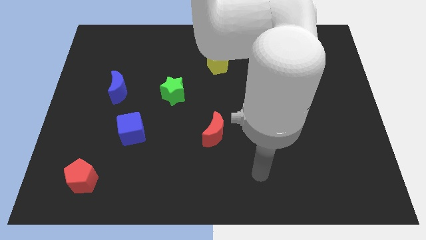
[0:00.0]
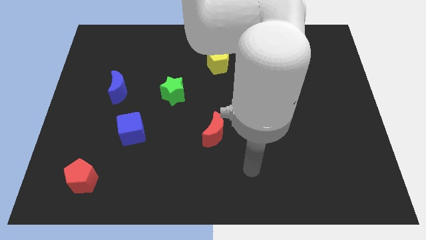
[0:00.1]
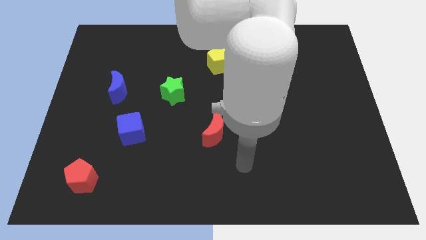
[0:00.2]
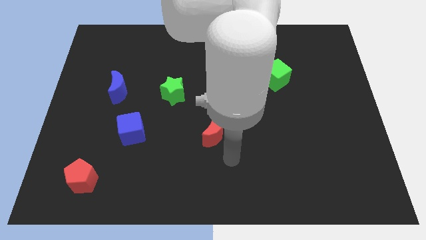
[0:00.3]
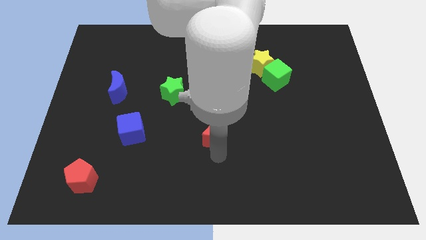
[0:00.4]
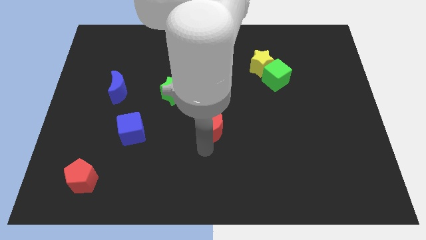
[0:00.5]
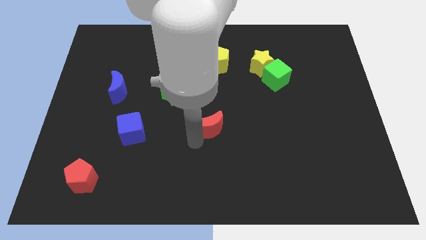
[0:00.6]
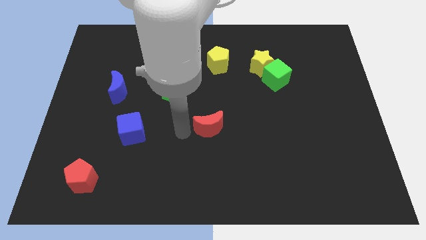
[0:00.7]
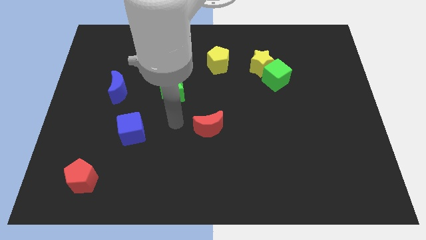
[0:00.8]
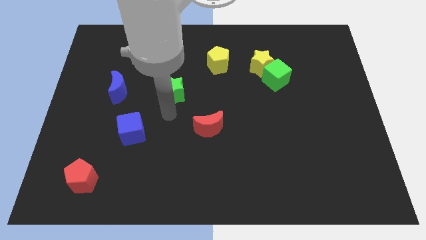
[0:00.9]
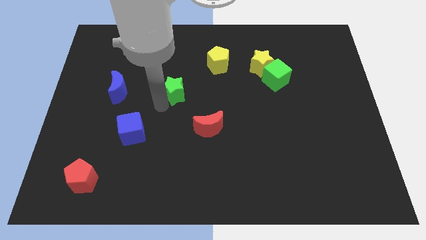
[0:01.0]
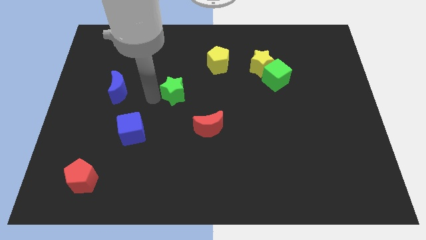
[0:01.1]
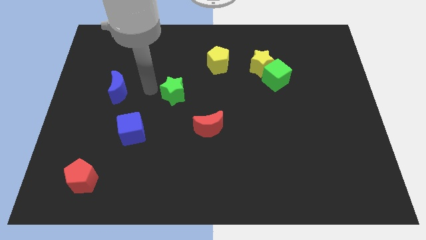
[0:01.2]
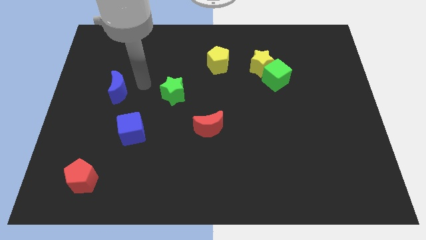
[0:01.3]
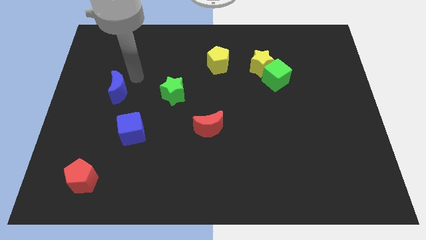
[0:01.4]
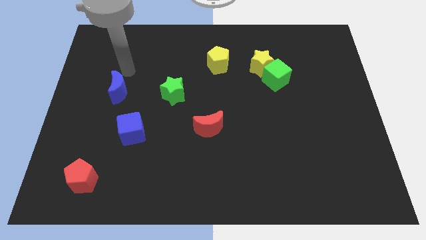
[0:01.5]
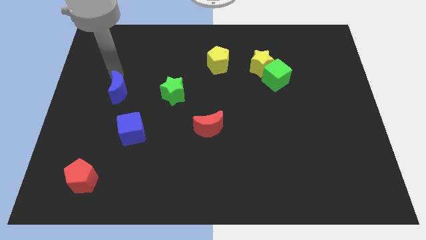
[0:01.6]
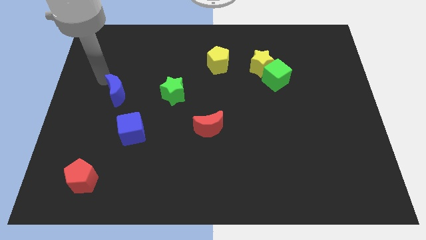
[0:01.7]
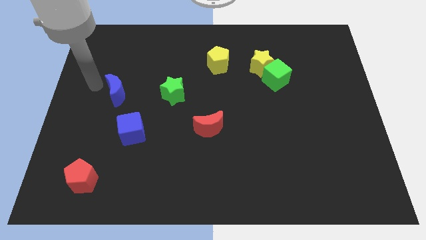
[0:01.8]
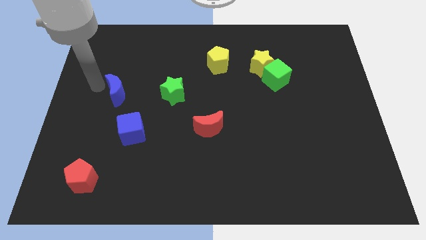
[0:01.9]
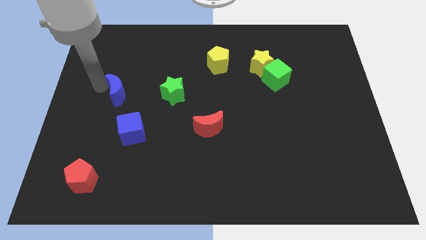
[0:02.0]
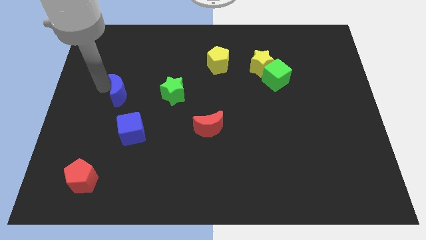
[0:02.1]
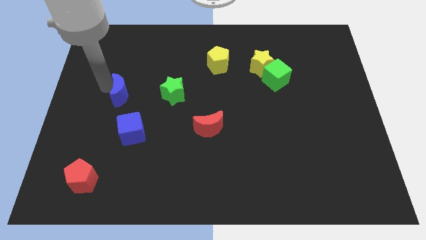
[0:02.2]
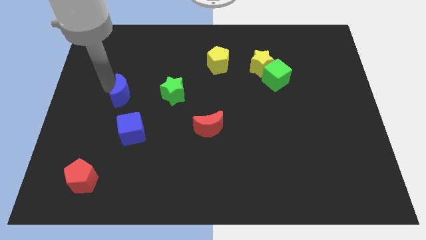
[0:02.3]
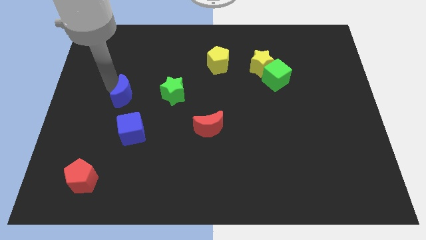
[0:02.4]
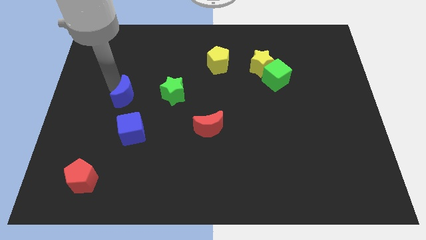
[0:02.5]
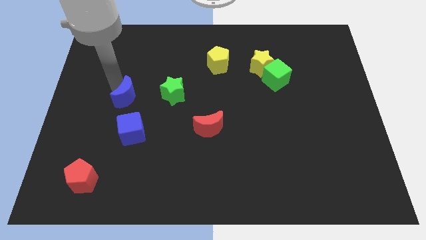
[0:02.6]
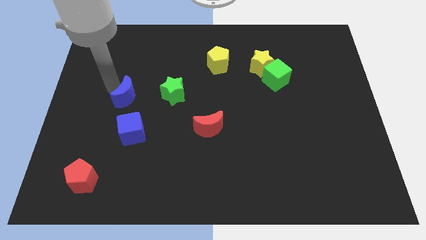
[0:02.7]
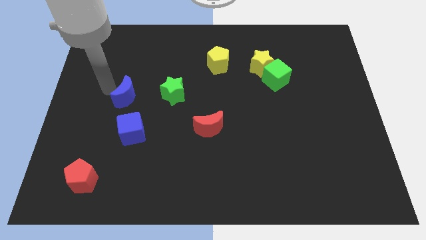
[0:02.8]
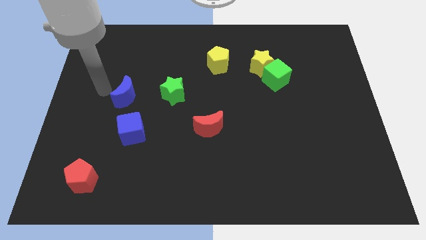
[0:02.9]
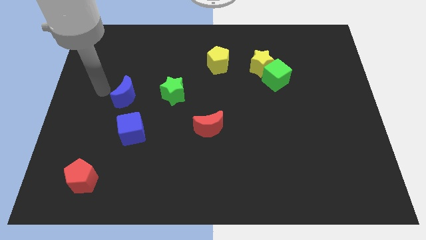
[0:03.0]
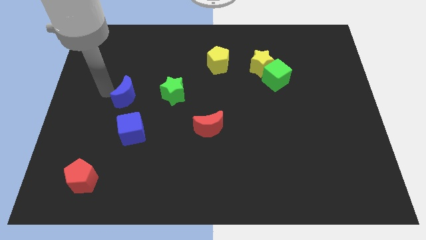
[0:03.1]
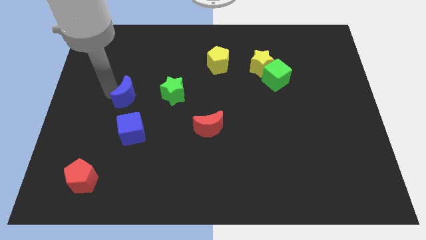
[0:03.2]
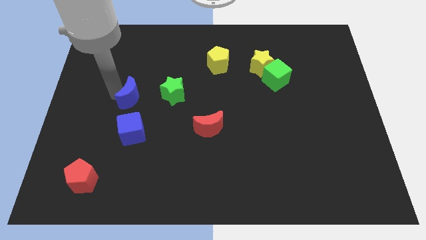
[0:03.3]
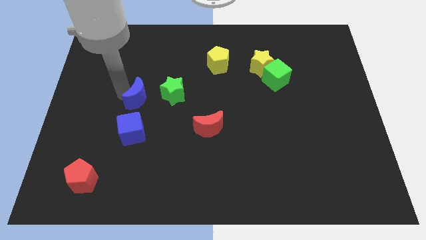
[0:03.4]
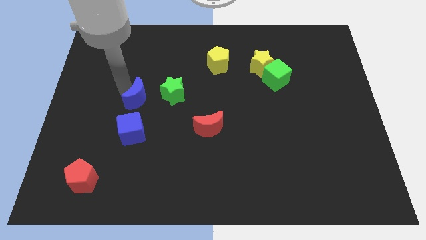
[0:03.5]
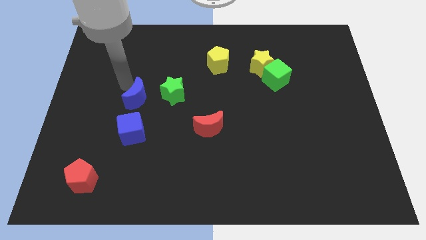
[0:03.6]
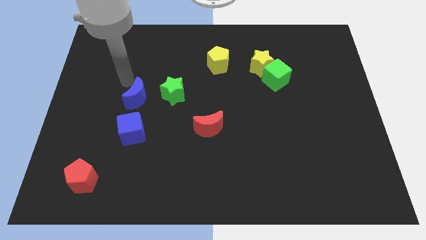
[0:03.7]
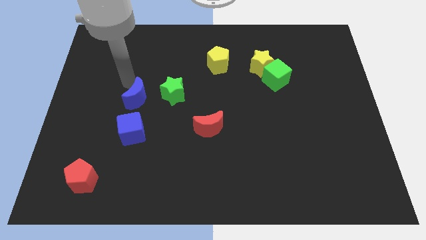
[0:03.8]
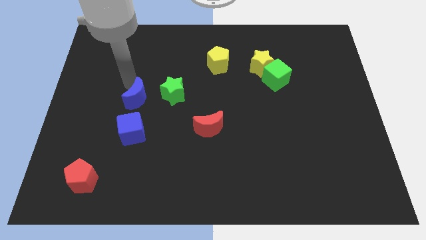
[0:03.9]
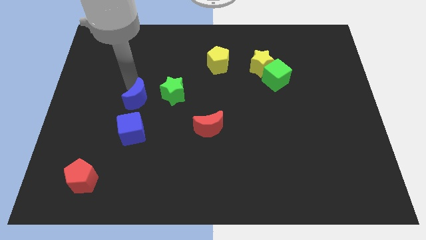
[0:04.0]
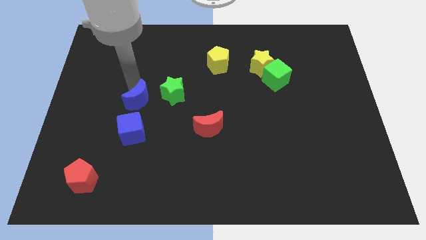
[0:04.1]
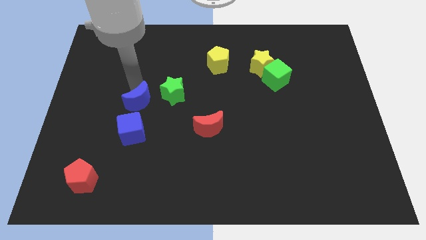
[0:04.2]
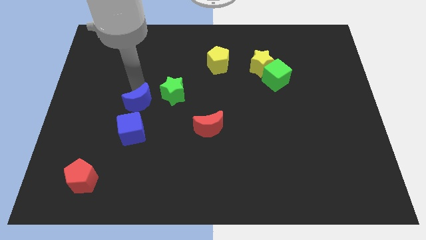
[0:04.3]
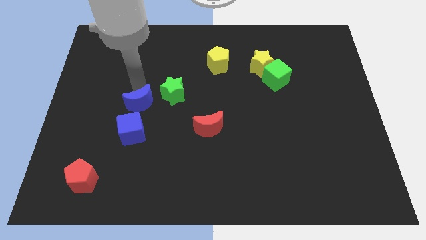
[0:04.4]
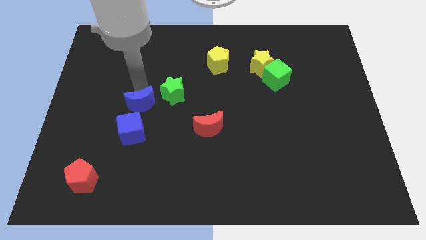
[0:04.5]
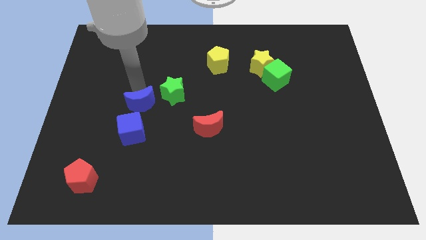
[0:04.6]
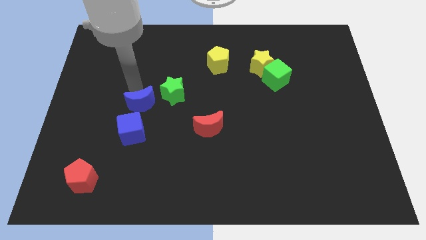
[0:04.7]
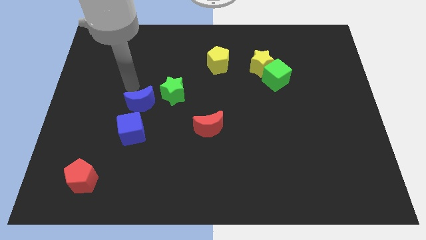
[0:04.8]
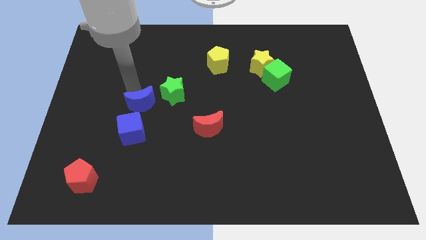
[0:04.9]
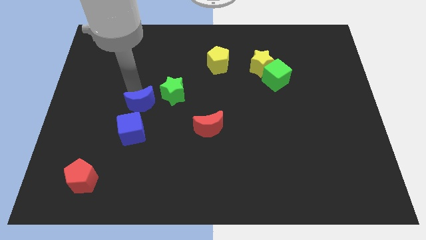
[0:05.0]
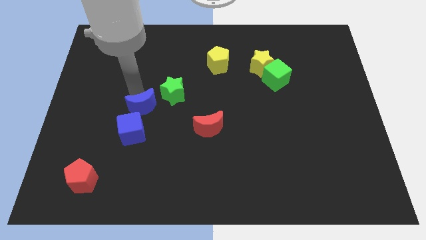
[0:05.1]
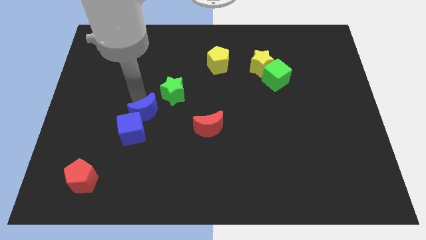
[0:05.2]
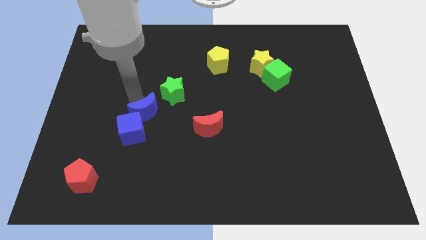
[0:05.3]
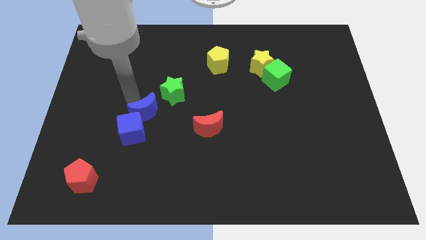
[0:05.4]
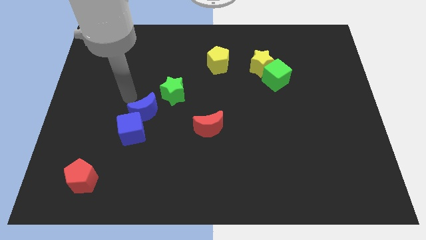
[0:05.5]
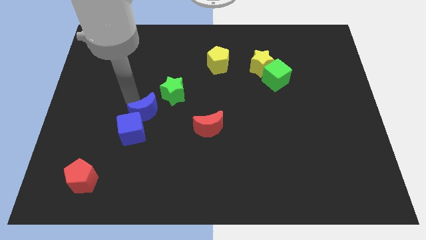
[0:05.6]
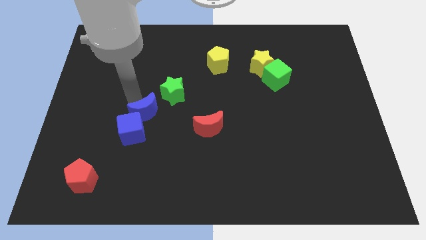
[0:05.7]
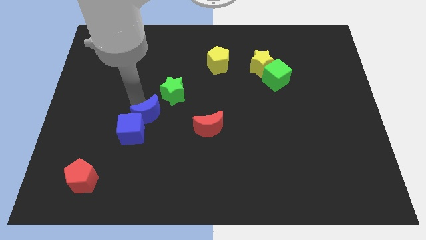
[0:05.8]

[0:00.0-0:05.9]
slide the blue moon left of the red moon

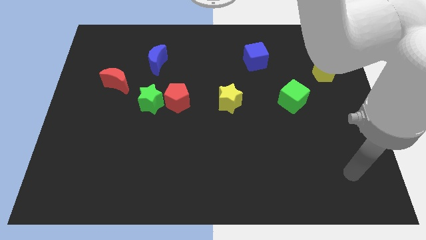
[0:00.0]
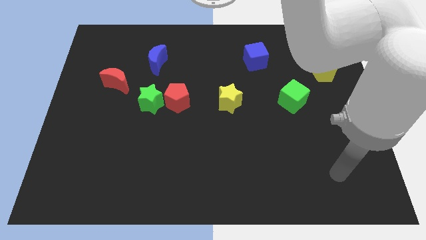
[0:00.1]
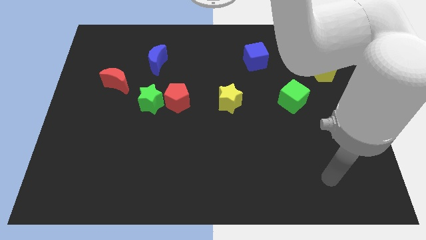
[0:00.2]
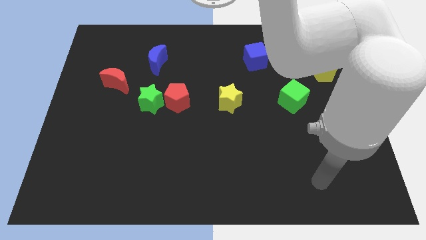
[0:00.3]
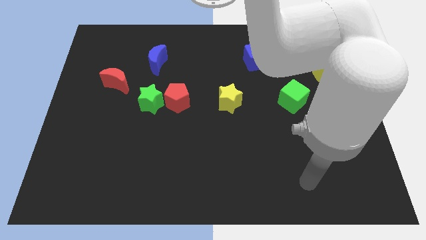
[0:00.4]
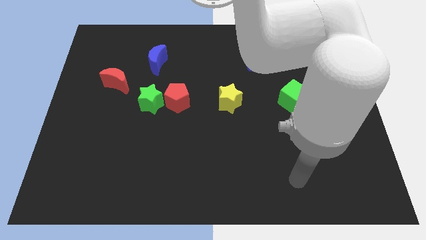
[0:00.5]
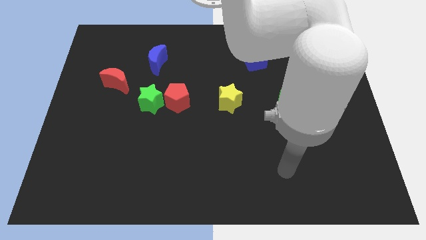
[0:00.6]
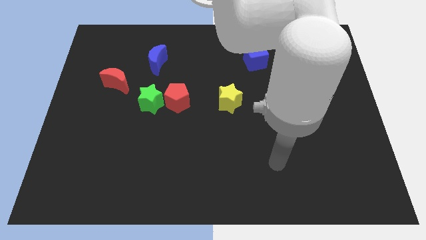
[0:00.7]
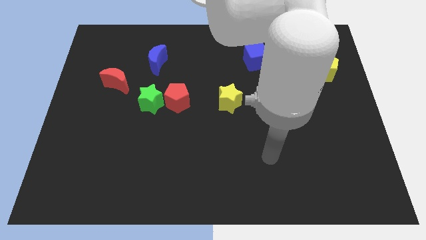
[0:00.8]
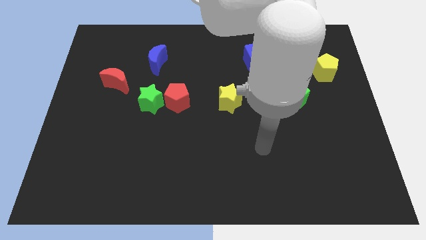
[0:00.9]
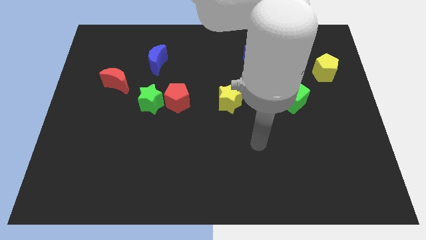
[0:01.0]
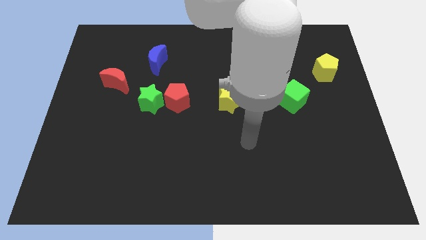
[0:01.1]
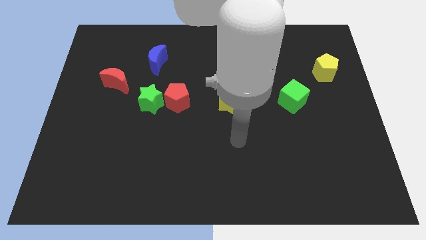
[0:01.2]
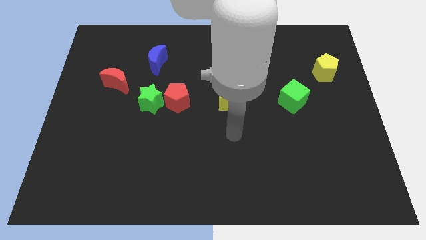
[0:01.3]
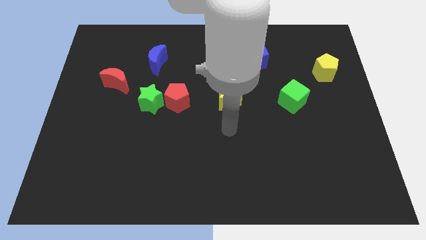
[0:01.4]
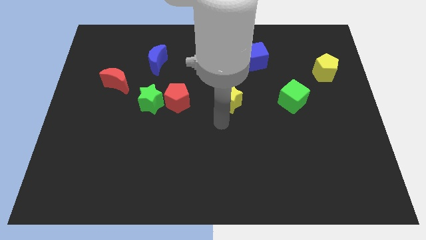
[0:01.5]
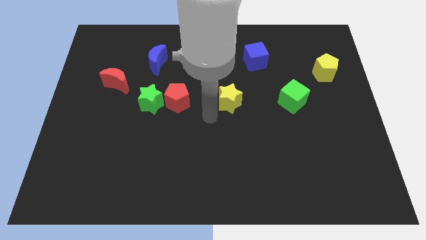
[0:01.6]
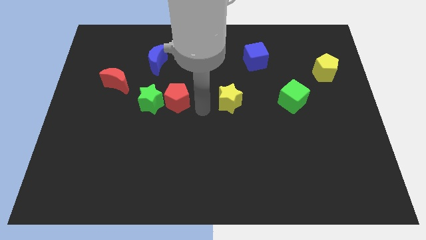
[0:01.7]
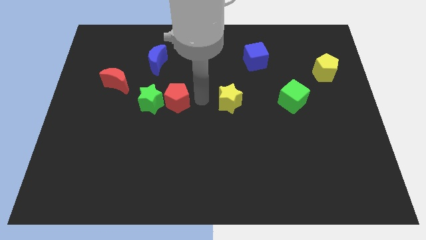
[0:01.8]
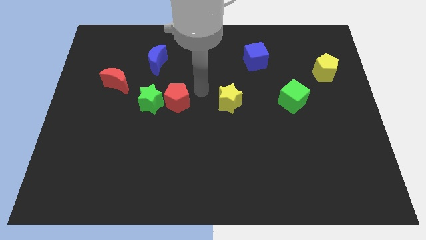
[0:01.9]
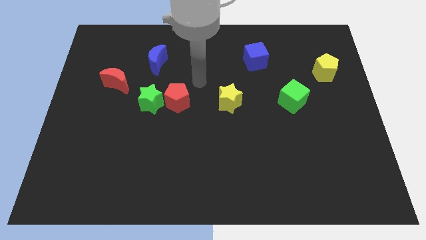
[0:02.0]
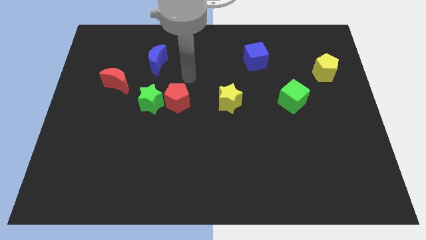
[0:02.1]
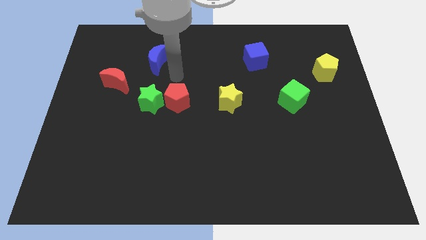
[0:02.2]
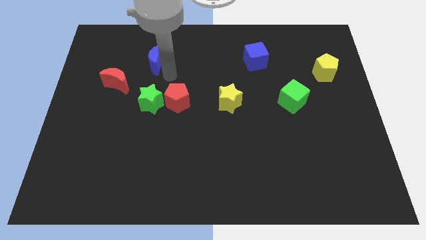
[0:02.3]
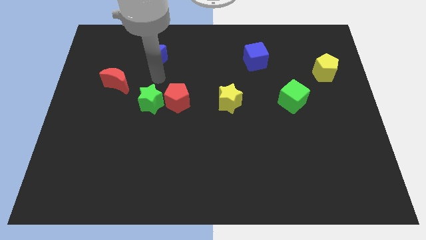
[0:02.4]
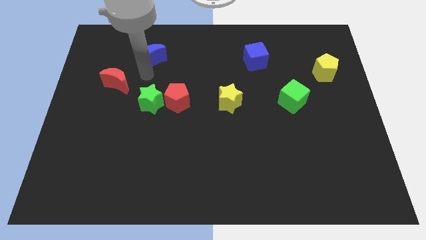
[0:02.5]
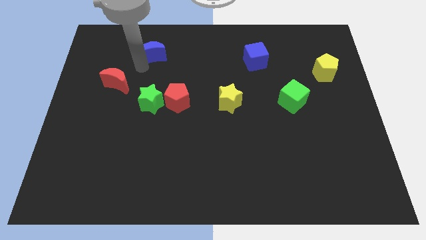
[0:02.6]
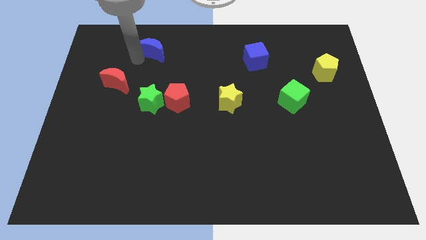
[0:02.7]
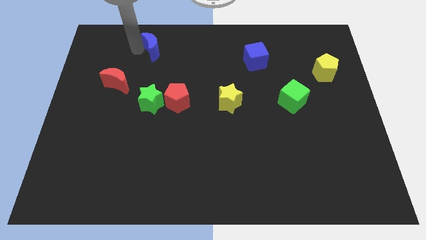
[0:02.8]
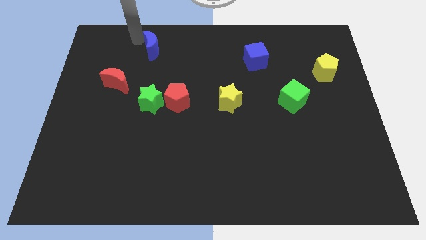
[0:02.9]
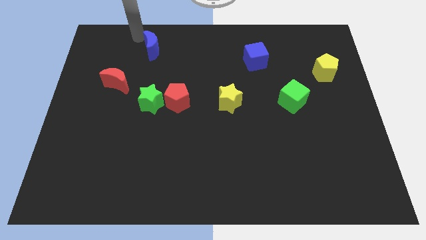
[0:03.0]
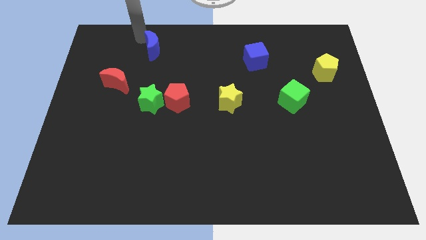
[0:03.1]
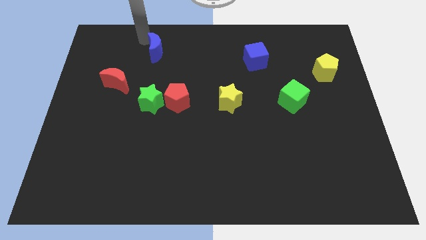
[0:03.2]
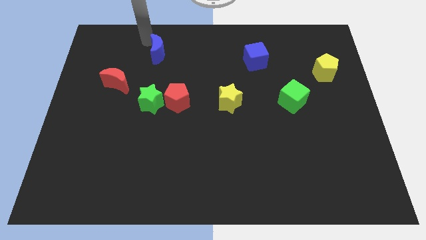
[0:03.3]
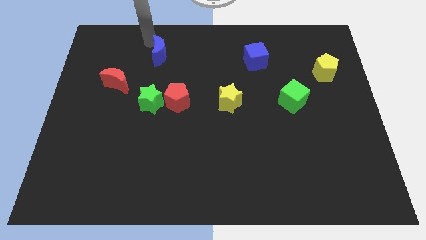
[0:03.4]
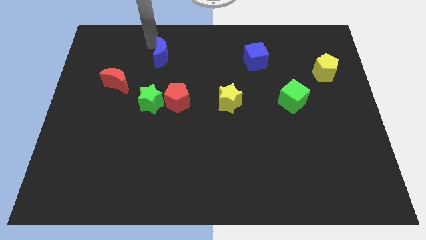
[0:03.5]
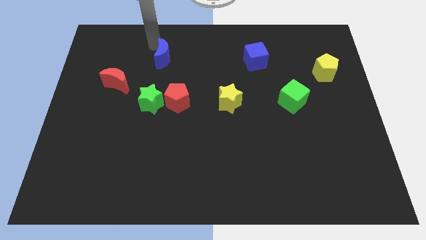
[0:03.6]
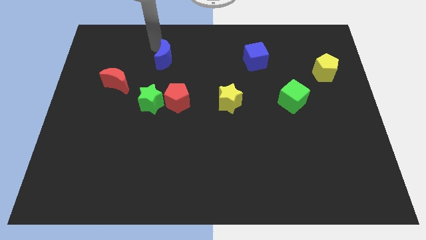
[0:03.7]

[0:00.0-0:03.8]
move the blue moon to the top of the red pentagon
